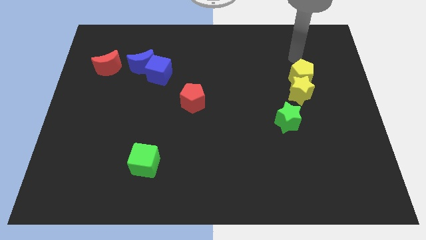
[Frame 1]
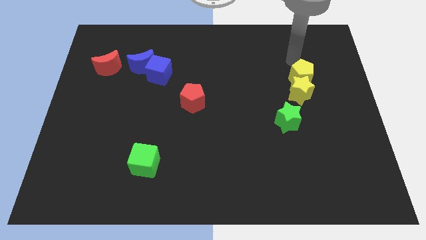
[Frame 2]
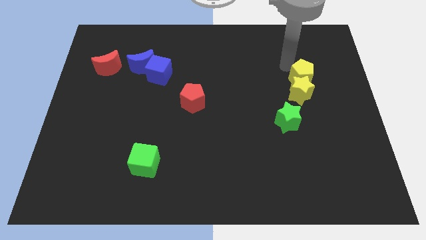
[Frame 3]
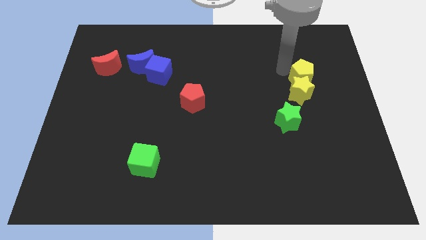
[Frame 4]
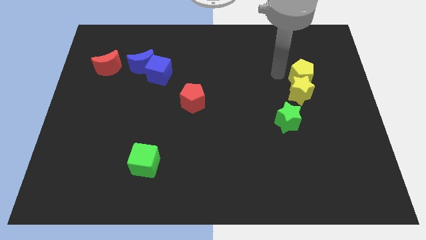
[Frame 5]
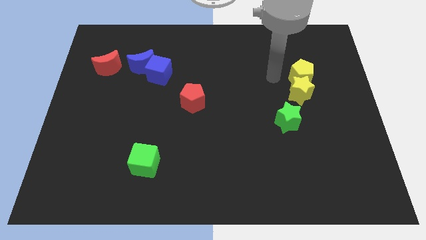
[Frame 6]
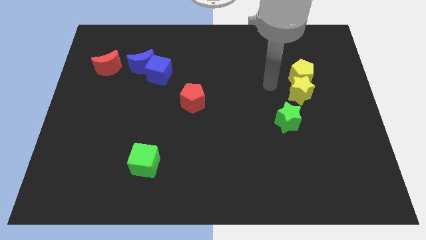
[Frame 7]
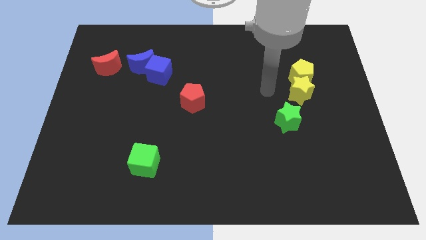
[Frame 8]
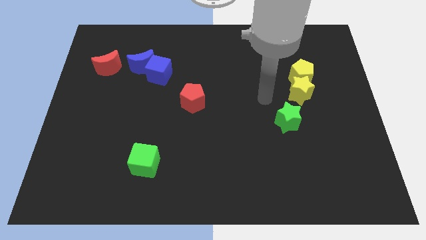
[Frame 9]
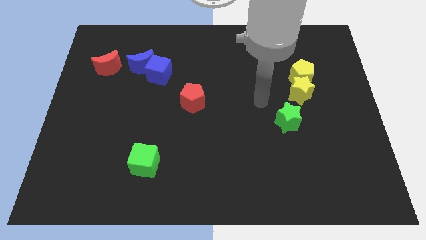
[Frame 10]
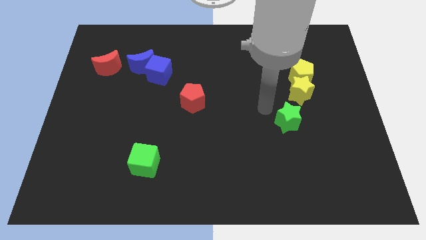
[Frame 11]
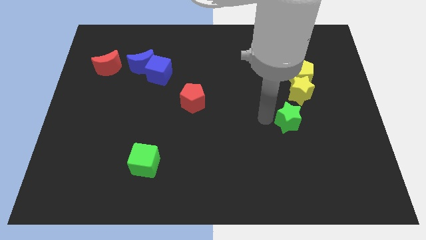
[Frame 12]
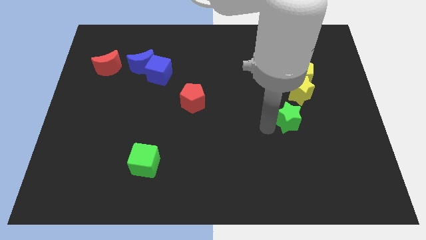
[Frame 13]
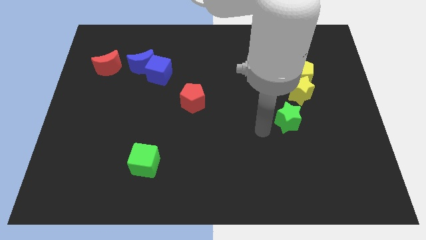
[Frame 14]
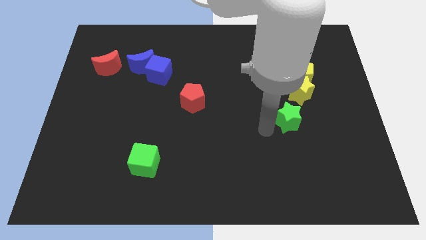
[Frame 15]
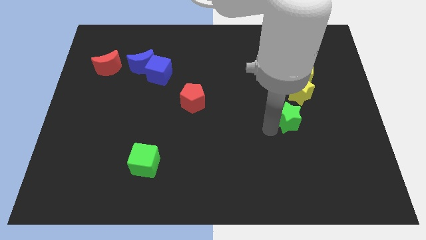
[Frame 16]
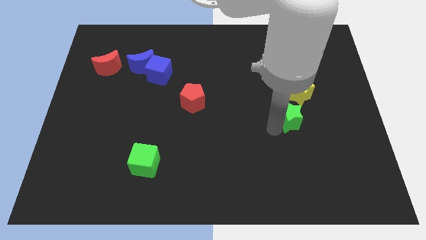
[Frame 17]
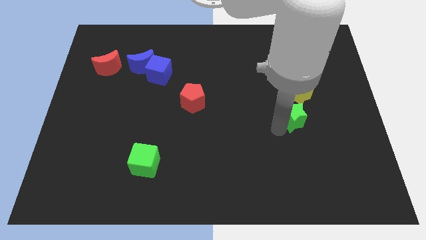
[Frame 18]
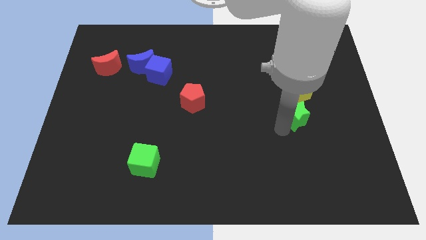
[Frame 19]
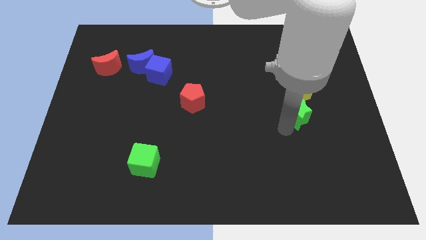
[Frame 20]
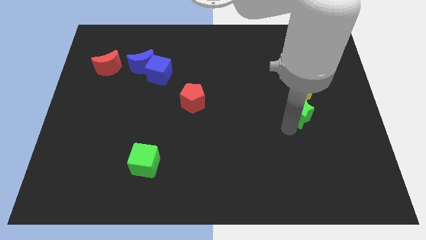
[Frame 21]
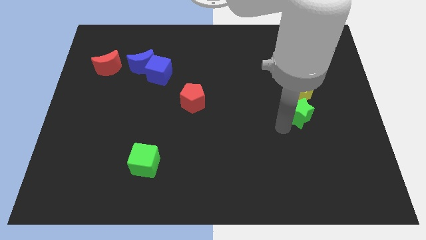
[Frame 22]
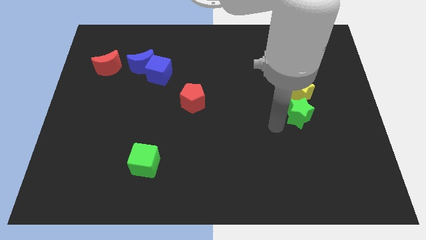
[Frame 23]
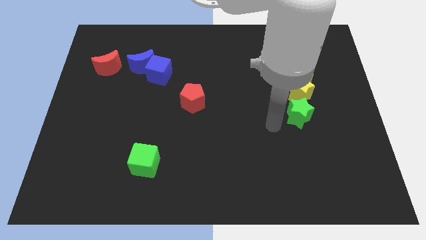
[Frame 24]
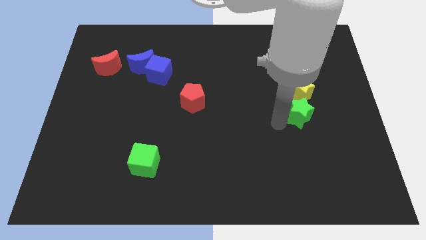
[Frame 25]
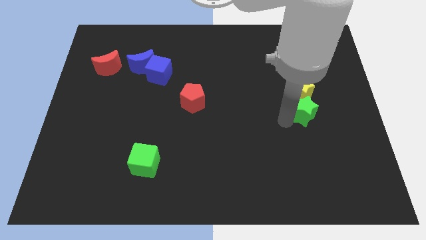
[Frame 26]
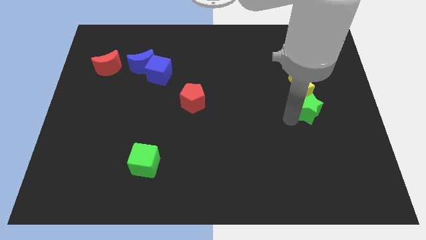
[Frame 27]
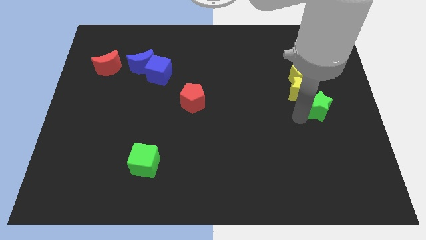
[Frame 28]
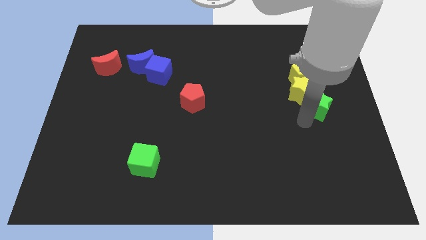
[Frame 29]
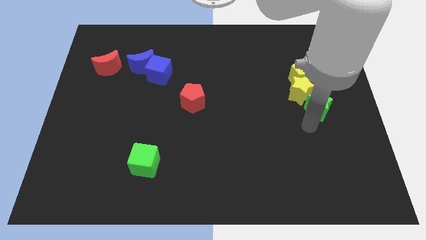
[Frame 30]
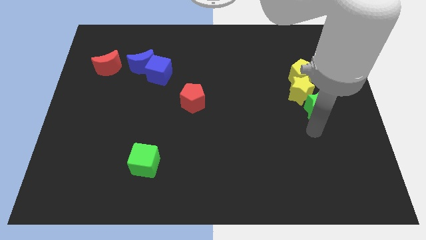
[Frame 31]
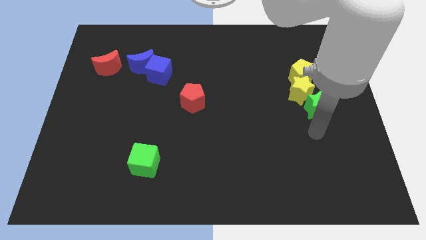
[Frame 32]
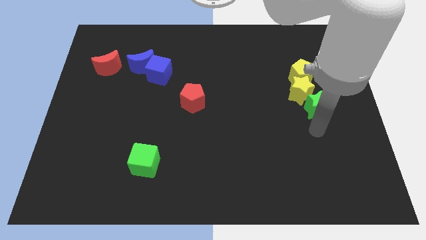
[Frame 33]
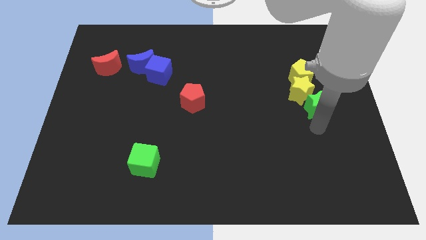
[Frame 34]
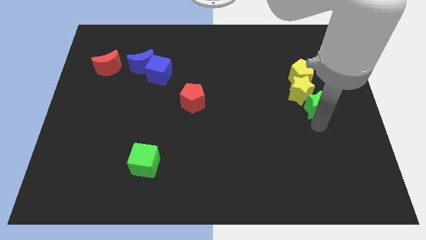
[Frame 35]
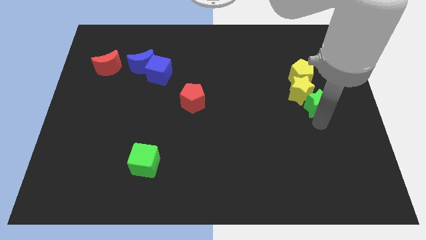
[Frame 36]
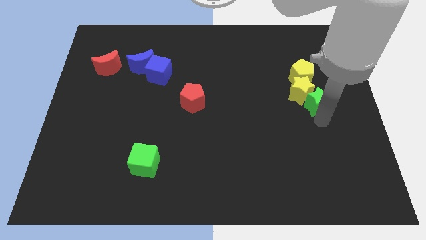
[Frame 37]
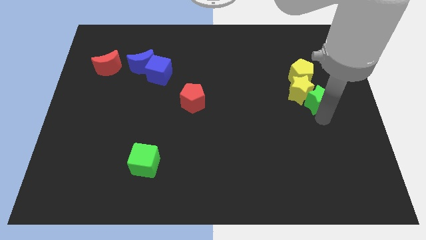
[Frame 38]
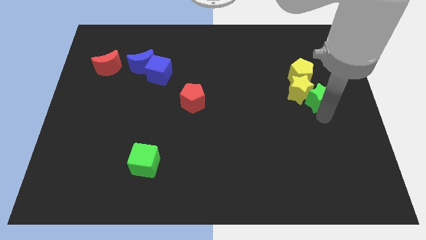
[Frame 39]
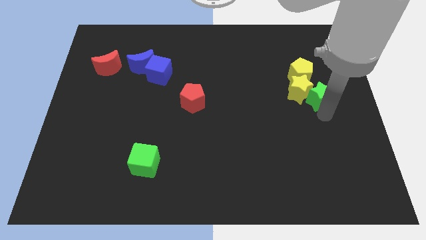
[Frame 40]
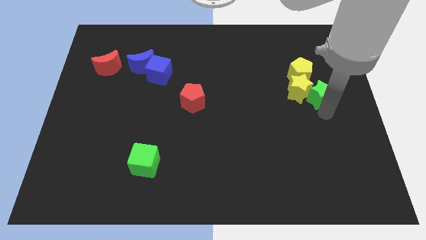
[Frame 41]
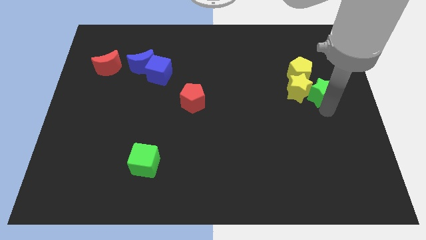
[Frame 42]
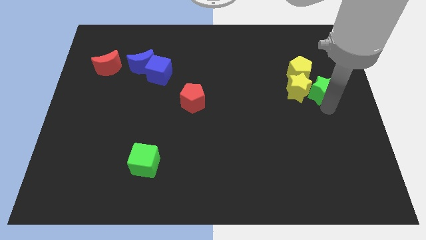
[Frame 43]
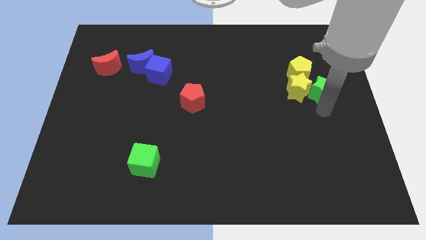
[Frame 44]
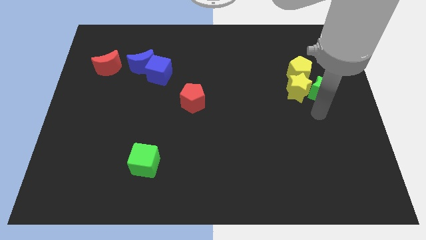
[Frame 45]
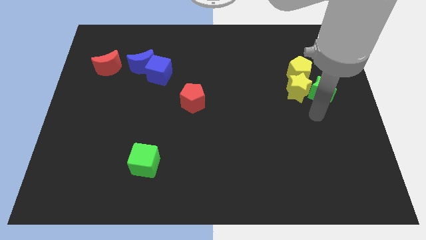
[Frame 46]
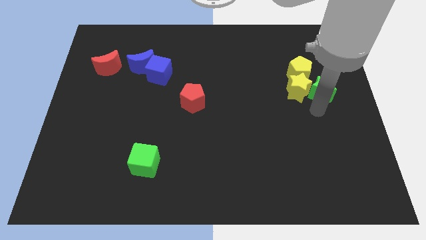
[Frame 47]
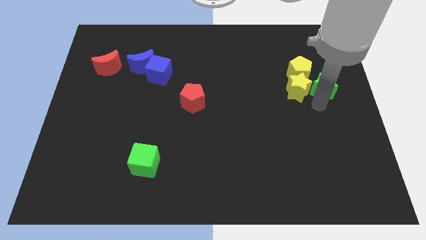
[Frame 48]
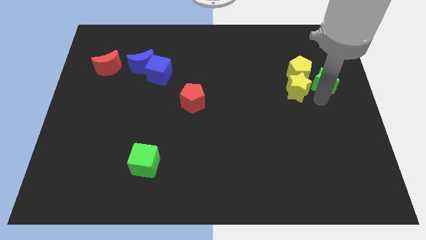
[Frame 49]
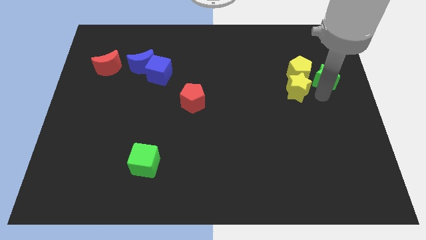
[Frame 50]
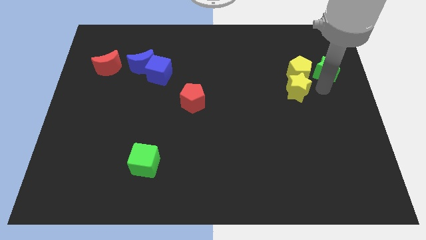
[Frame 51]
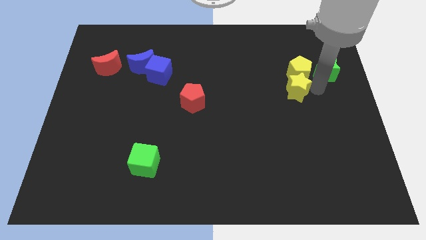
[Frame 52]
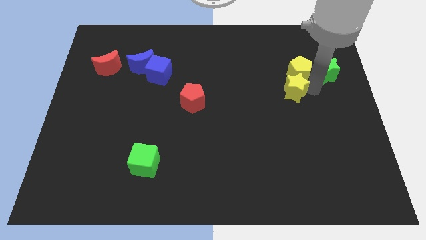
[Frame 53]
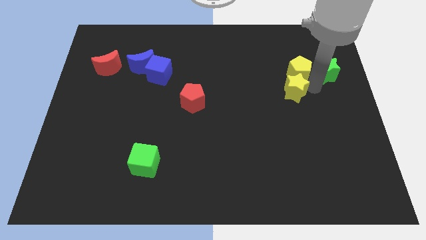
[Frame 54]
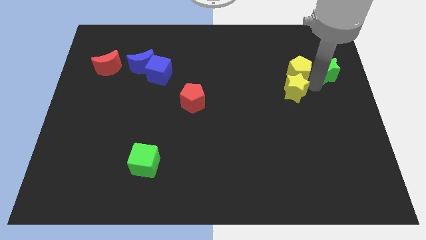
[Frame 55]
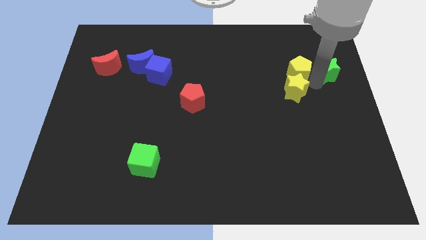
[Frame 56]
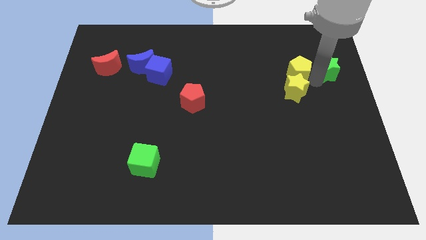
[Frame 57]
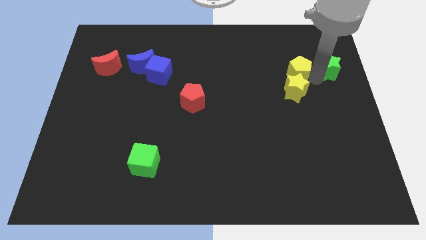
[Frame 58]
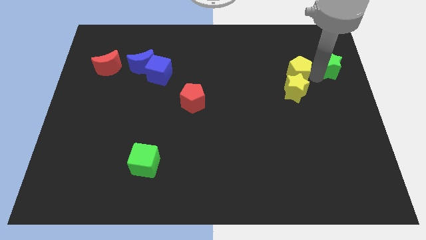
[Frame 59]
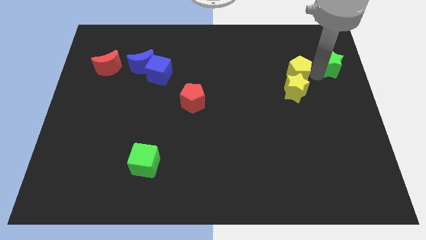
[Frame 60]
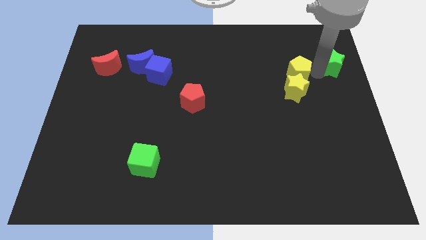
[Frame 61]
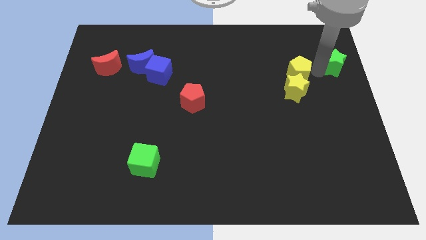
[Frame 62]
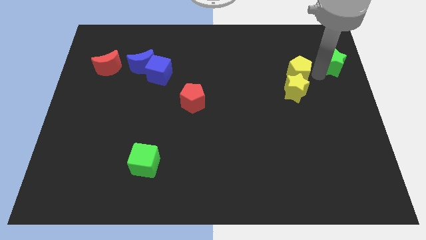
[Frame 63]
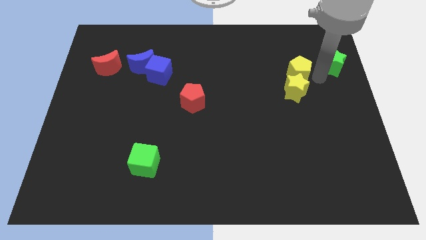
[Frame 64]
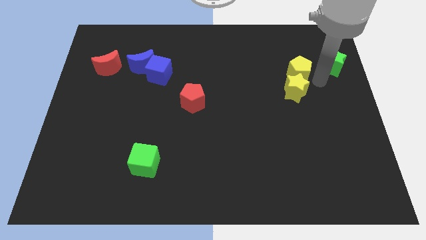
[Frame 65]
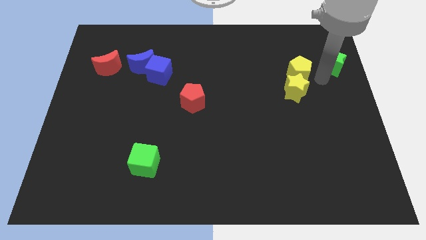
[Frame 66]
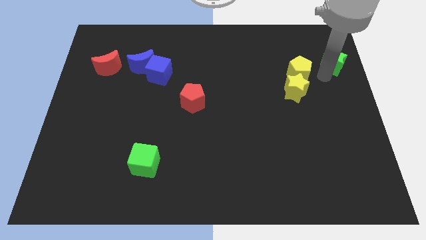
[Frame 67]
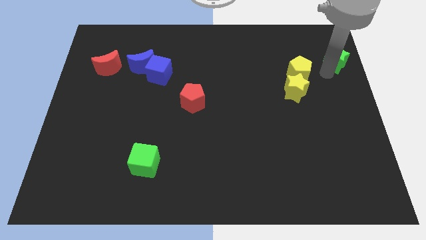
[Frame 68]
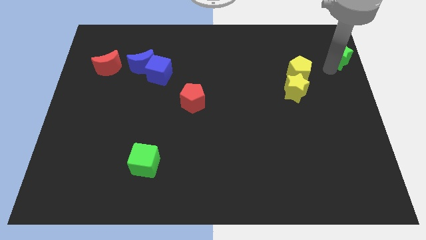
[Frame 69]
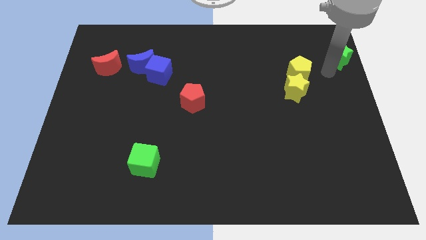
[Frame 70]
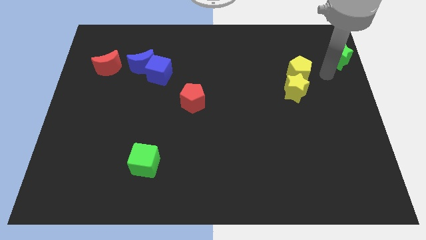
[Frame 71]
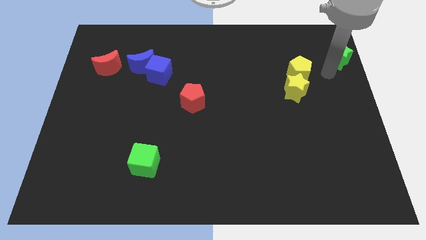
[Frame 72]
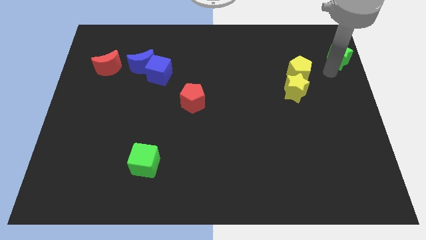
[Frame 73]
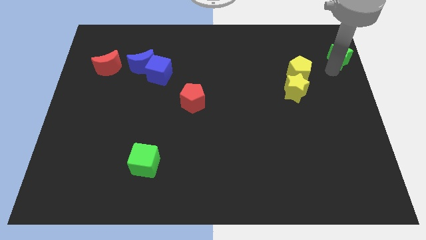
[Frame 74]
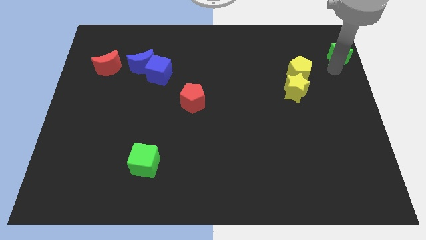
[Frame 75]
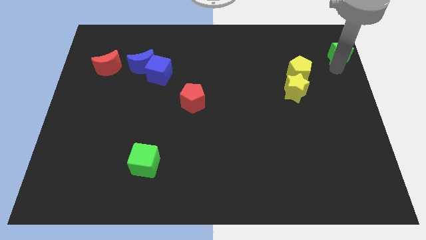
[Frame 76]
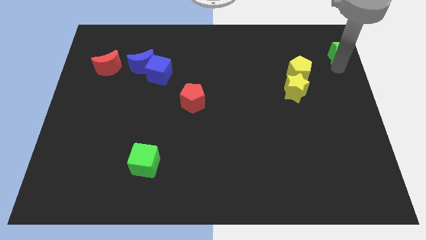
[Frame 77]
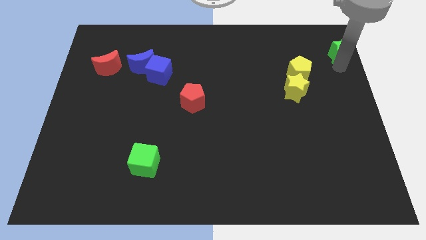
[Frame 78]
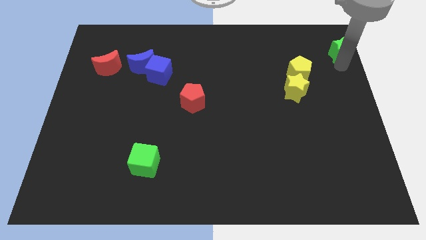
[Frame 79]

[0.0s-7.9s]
slide the green star to the upper right corner
